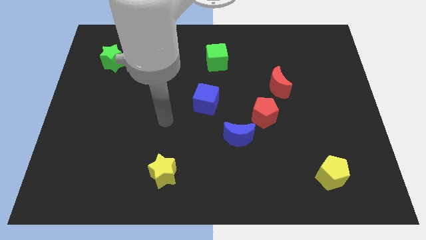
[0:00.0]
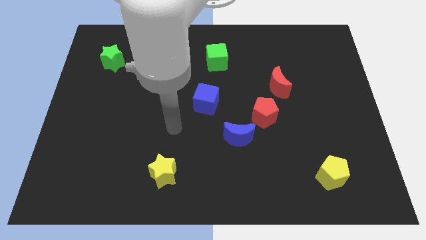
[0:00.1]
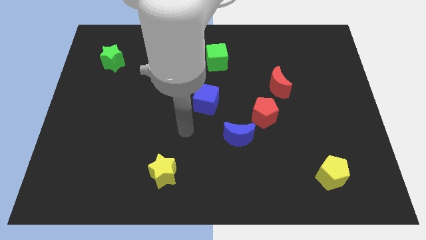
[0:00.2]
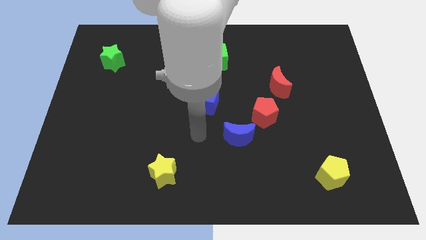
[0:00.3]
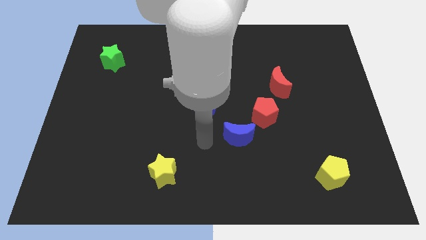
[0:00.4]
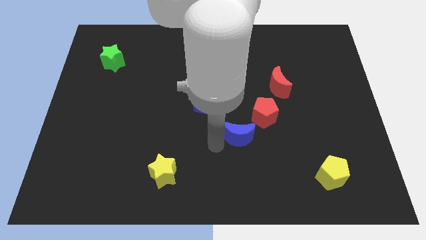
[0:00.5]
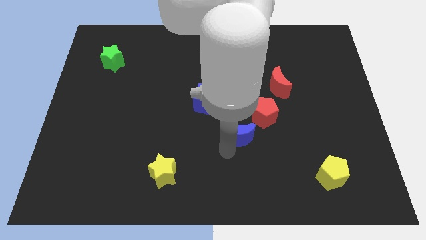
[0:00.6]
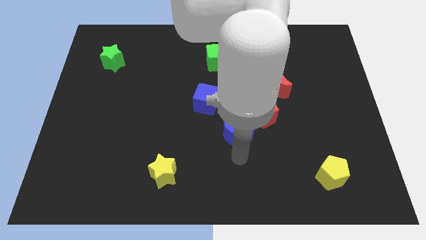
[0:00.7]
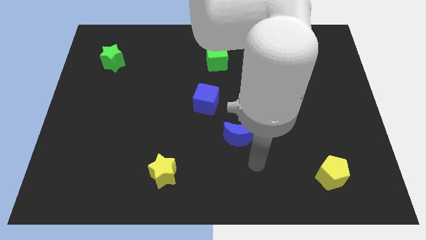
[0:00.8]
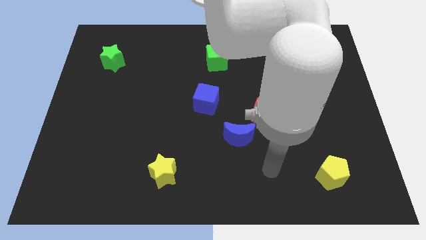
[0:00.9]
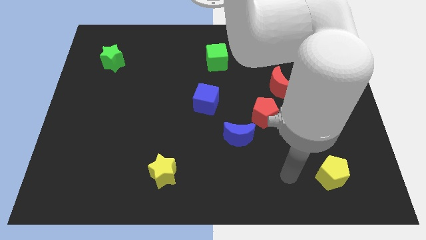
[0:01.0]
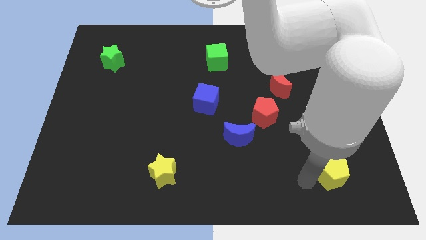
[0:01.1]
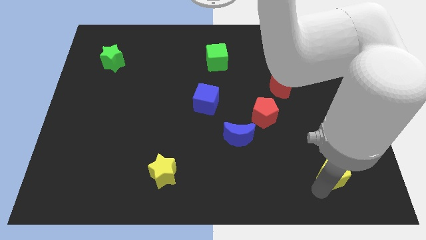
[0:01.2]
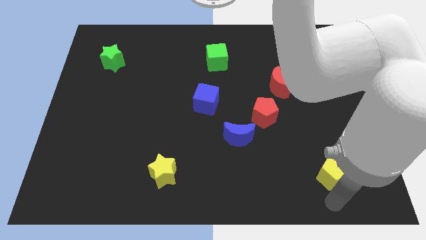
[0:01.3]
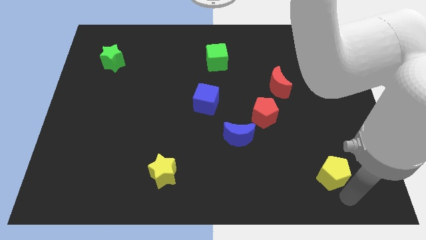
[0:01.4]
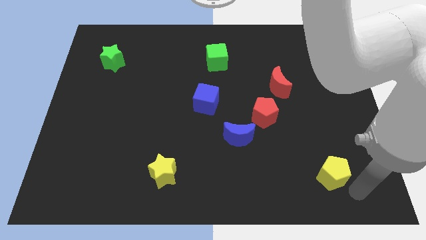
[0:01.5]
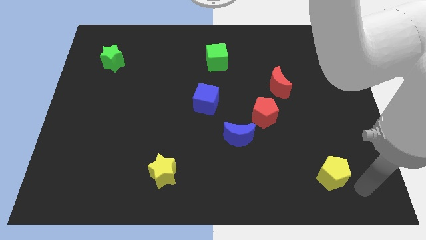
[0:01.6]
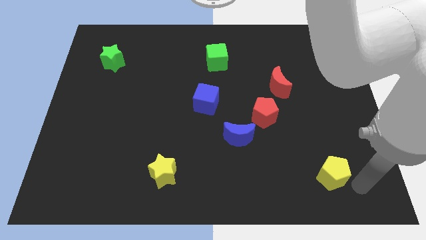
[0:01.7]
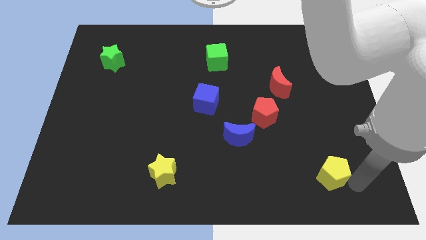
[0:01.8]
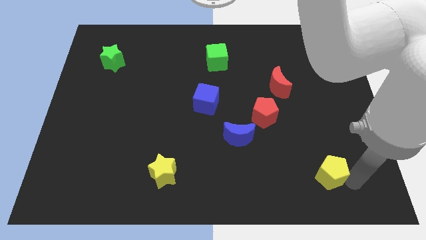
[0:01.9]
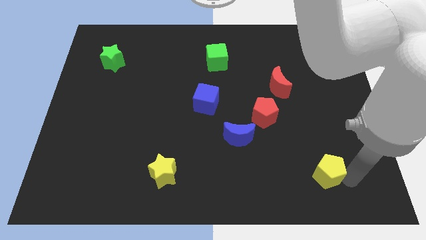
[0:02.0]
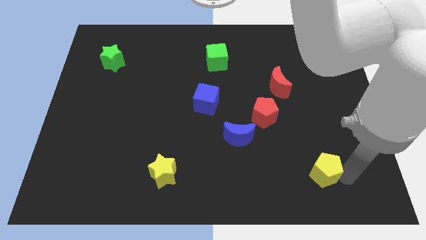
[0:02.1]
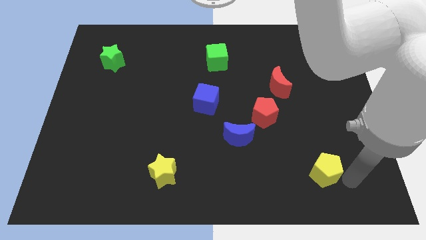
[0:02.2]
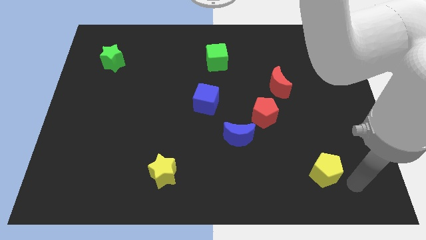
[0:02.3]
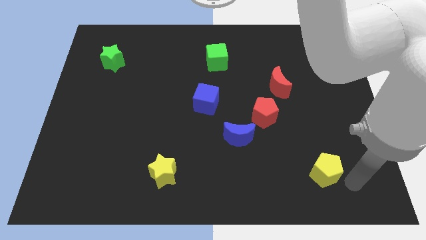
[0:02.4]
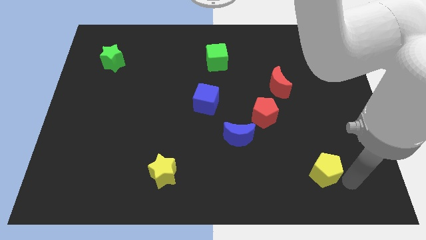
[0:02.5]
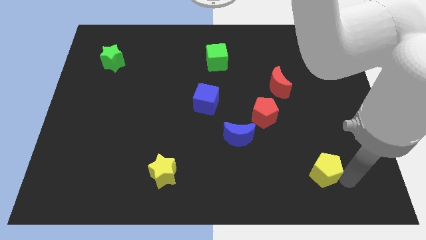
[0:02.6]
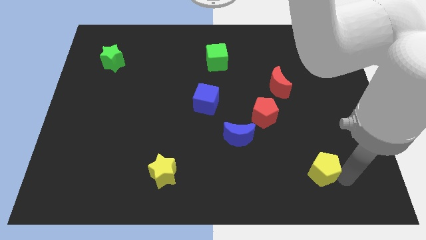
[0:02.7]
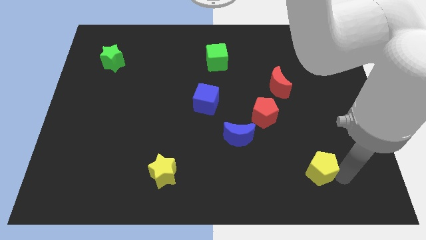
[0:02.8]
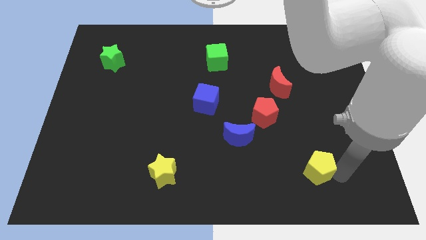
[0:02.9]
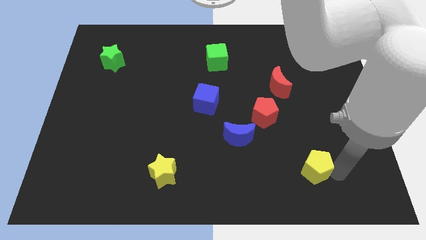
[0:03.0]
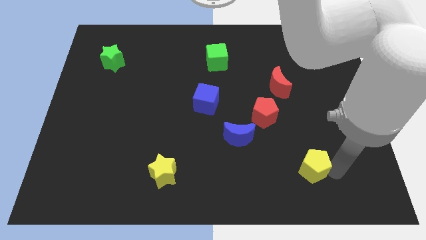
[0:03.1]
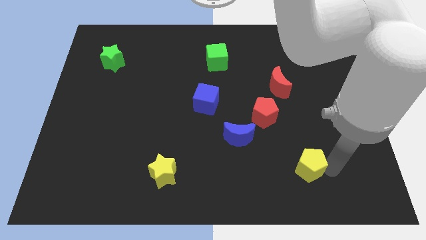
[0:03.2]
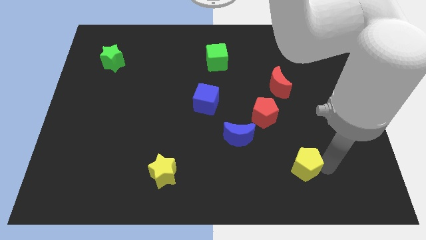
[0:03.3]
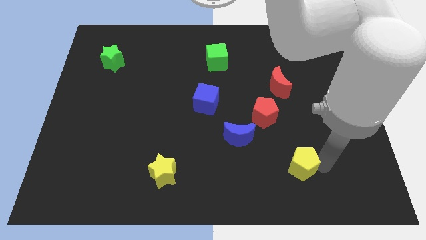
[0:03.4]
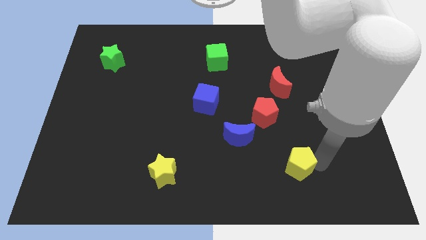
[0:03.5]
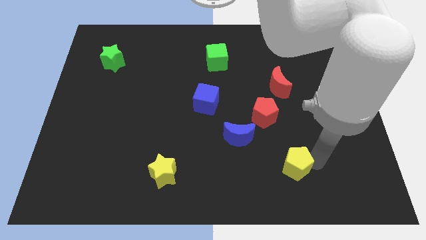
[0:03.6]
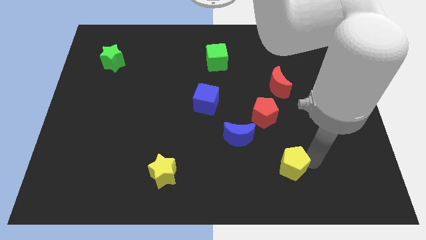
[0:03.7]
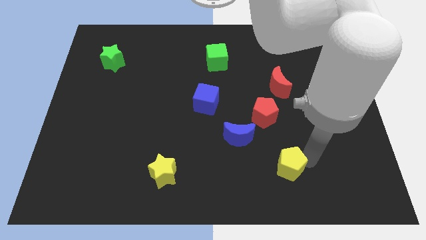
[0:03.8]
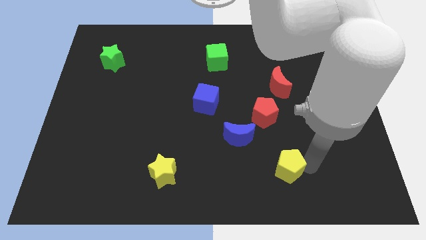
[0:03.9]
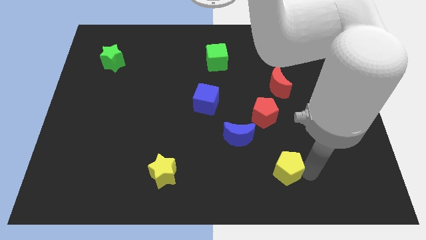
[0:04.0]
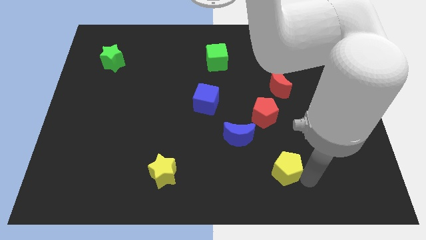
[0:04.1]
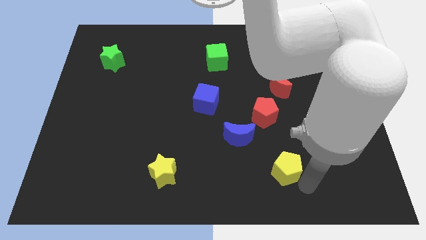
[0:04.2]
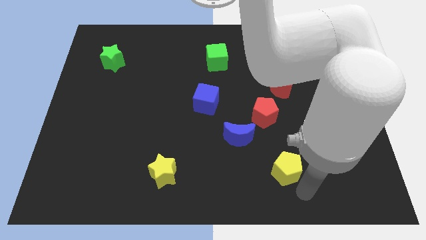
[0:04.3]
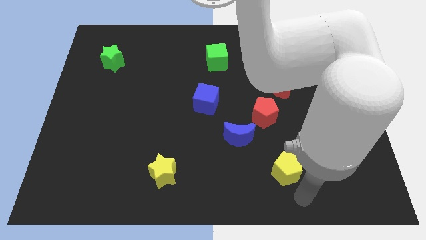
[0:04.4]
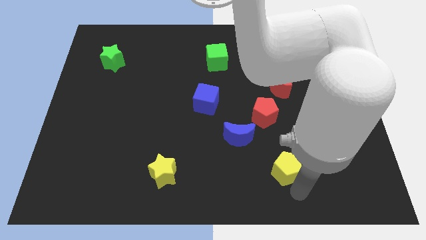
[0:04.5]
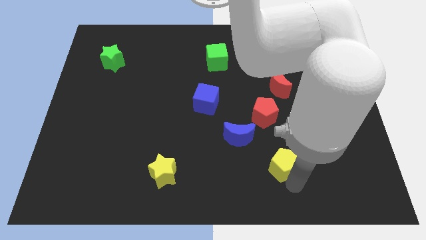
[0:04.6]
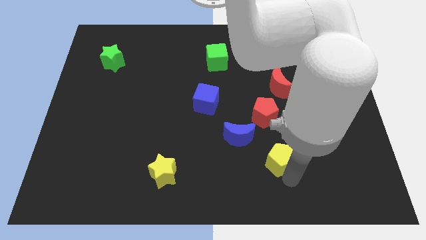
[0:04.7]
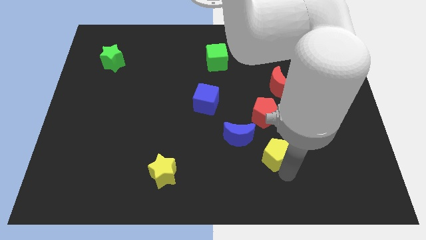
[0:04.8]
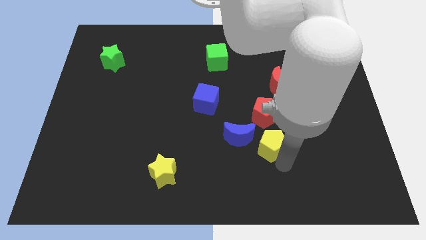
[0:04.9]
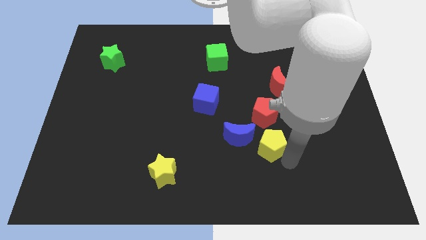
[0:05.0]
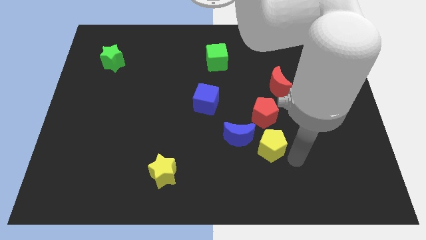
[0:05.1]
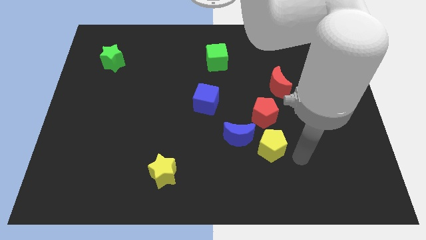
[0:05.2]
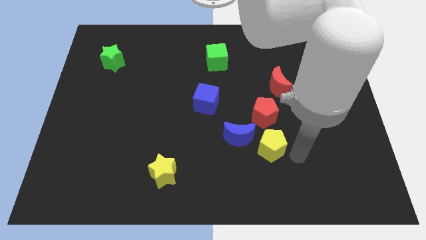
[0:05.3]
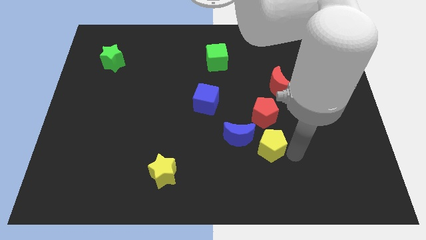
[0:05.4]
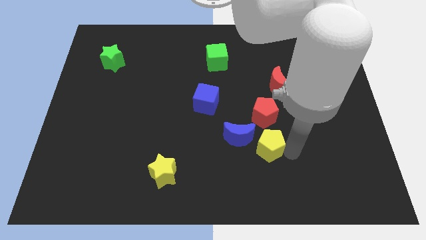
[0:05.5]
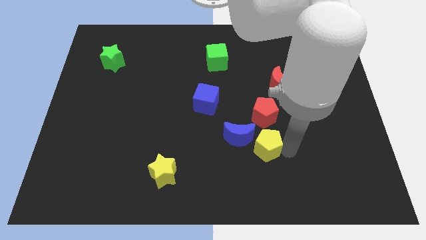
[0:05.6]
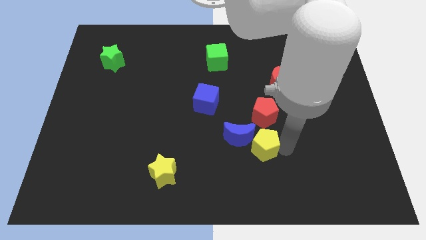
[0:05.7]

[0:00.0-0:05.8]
move the yellow pentagon next to the blue moon
